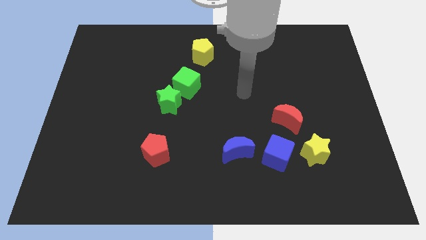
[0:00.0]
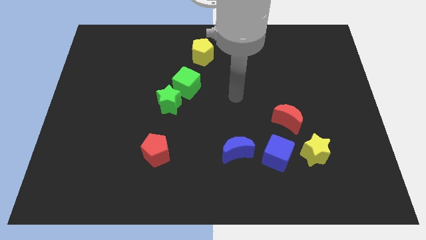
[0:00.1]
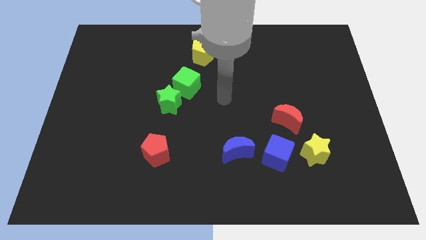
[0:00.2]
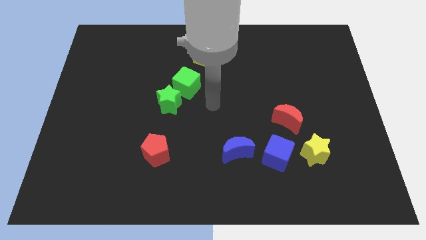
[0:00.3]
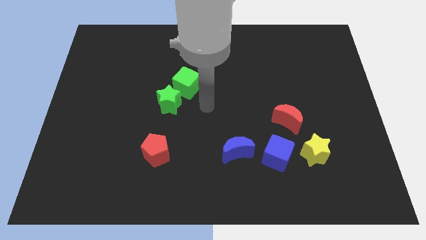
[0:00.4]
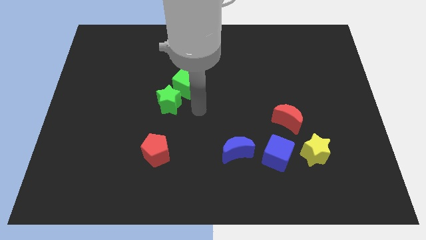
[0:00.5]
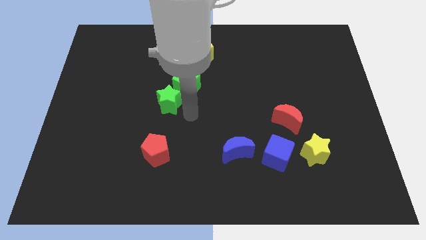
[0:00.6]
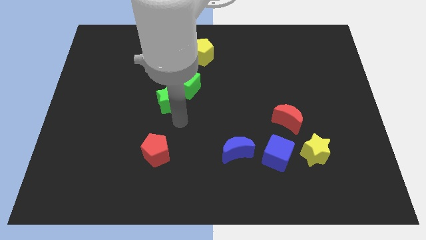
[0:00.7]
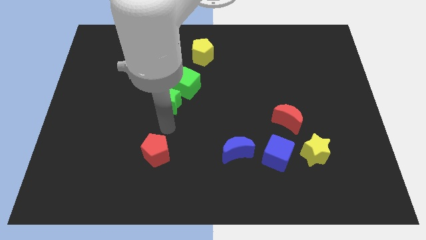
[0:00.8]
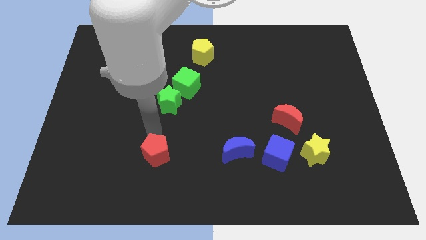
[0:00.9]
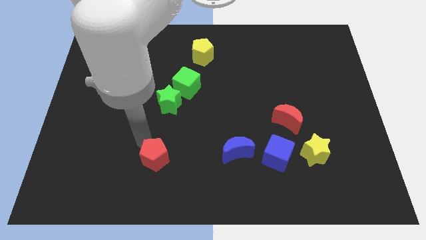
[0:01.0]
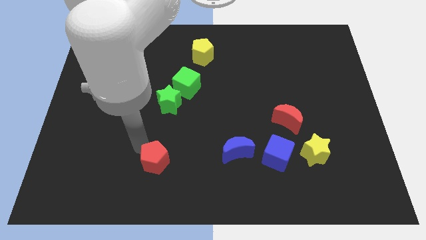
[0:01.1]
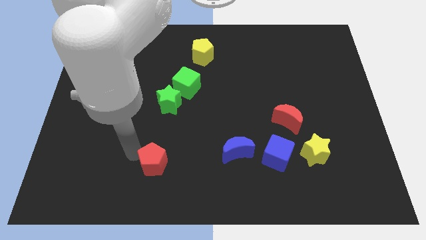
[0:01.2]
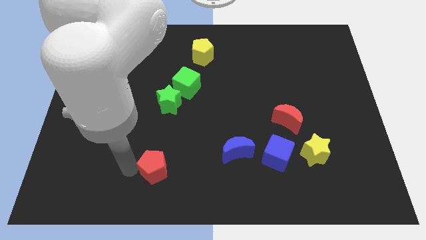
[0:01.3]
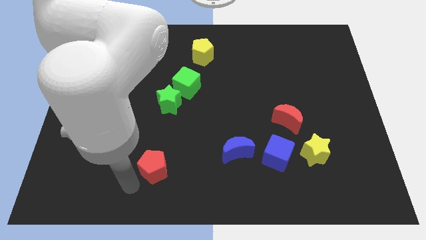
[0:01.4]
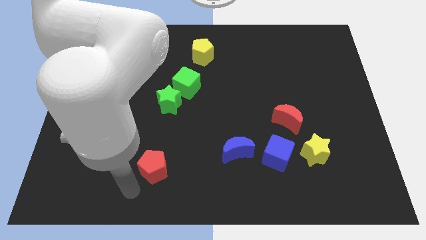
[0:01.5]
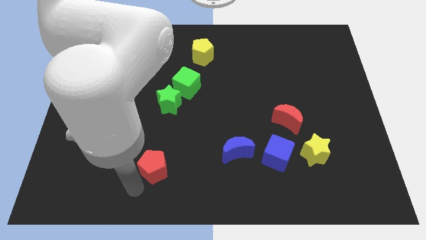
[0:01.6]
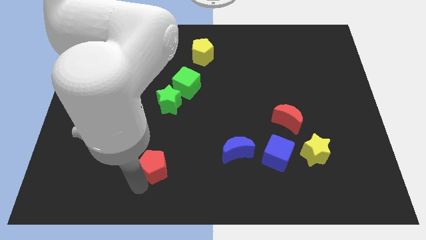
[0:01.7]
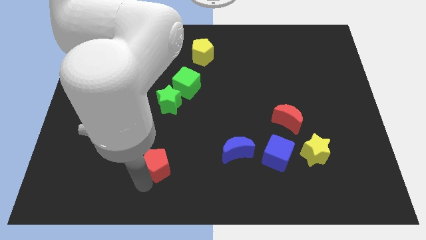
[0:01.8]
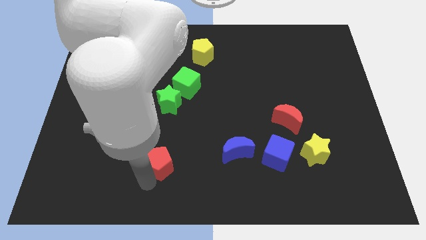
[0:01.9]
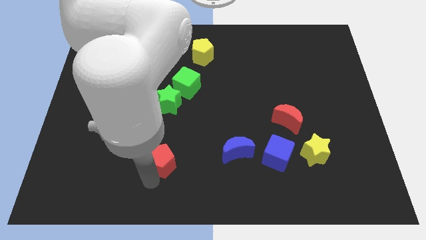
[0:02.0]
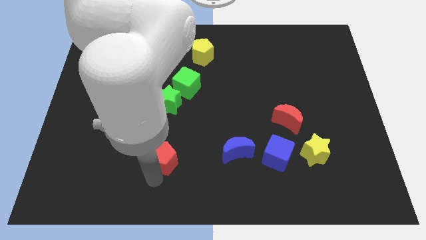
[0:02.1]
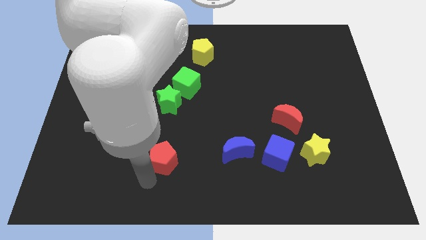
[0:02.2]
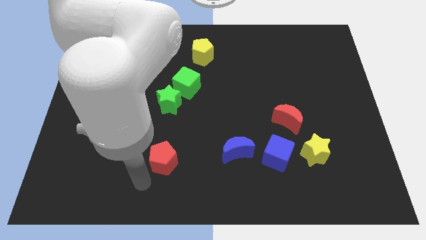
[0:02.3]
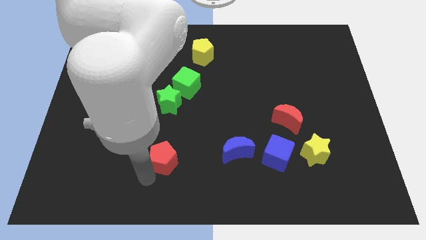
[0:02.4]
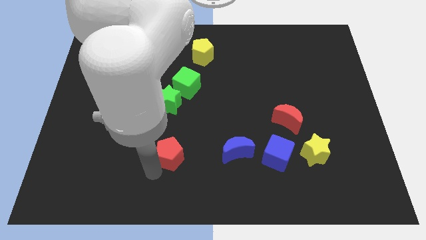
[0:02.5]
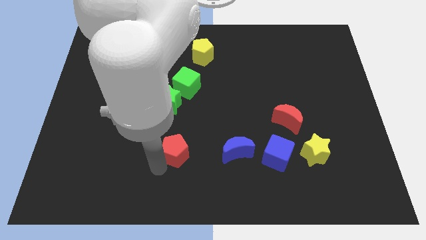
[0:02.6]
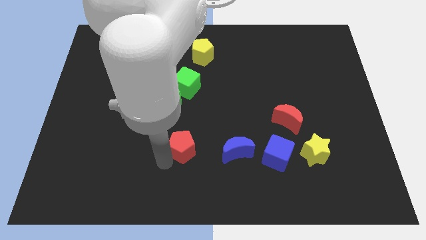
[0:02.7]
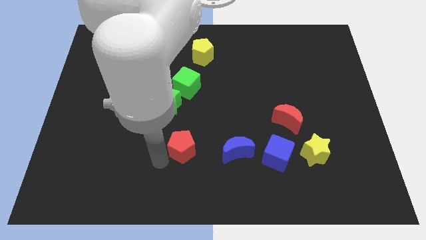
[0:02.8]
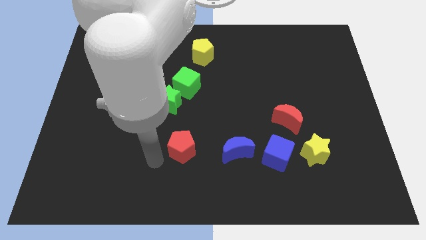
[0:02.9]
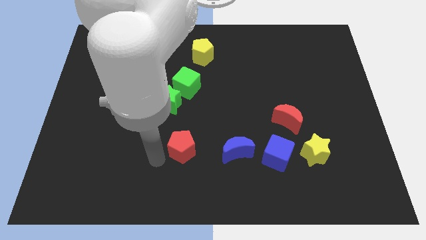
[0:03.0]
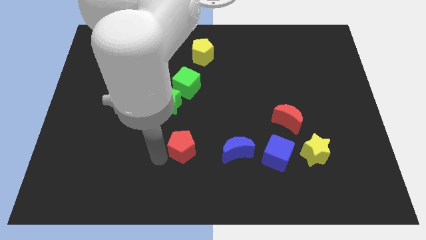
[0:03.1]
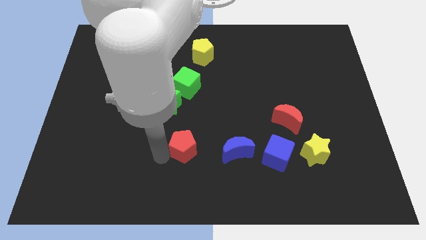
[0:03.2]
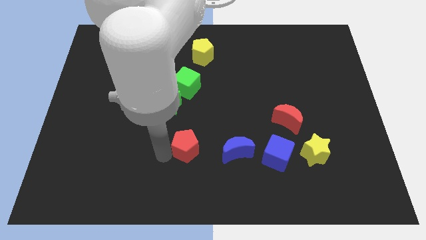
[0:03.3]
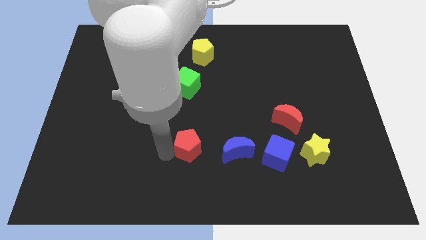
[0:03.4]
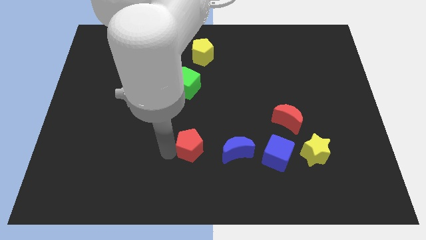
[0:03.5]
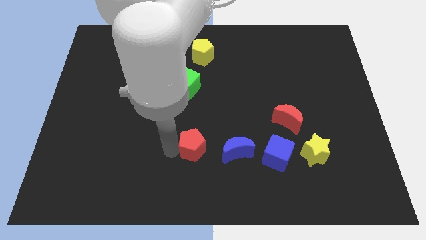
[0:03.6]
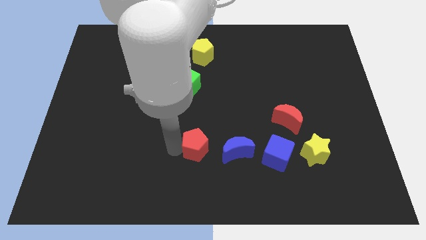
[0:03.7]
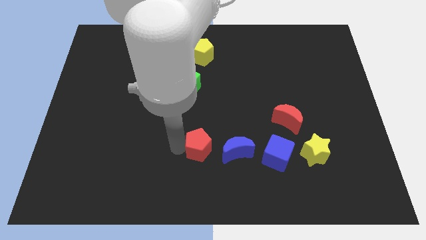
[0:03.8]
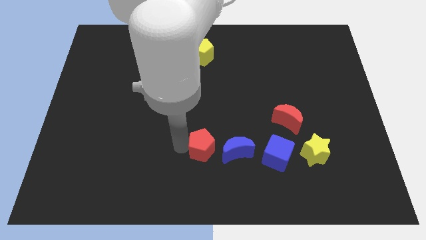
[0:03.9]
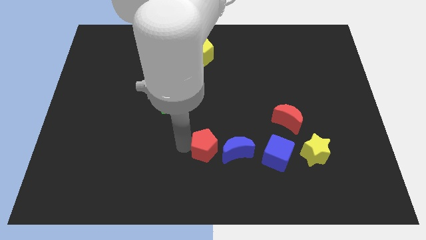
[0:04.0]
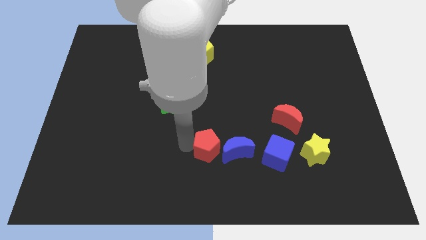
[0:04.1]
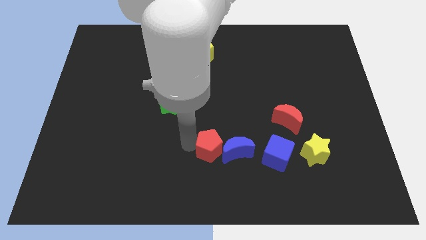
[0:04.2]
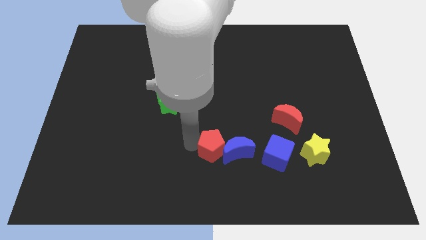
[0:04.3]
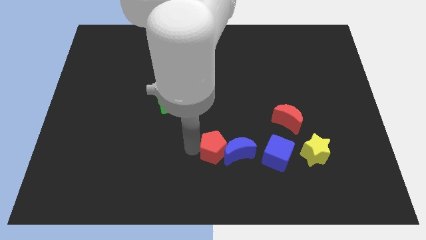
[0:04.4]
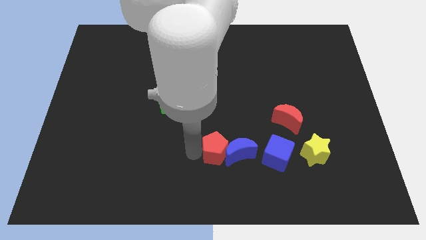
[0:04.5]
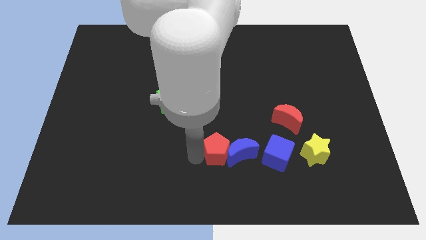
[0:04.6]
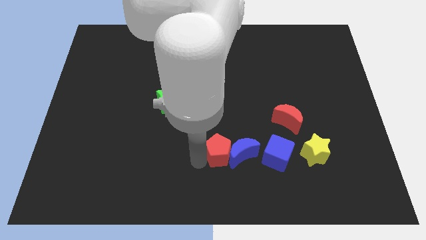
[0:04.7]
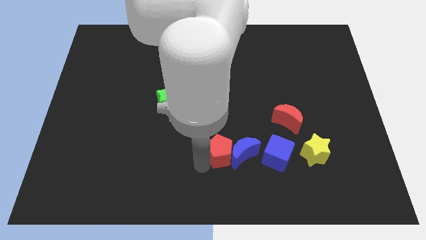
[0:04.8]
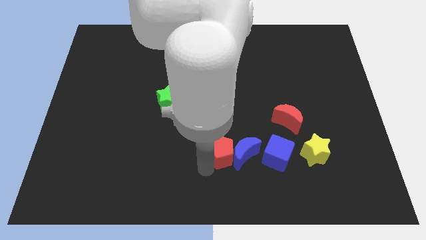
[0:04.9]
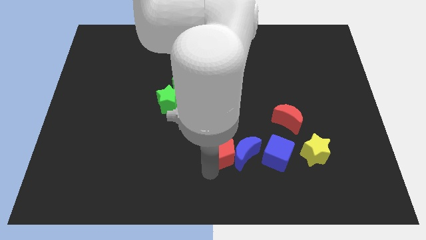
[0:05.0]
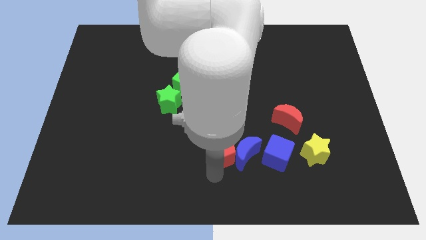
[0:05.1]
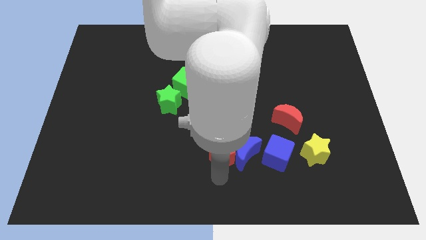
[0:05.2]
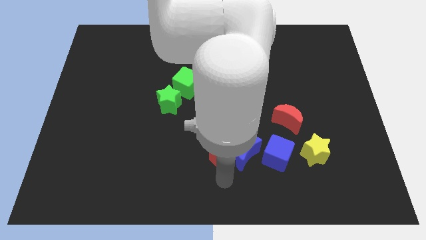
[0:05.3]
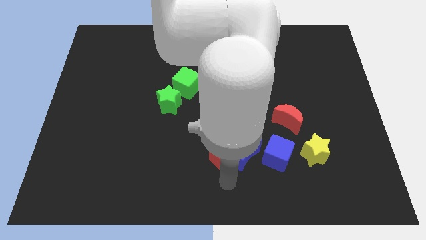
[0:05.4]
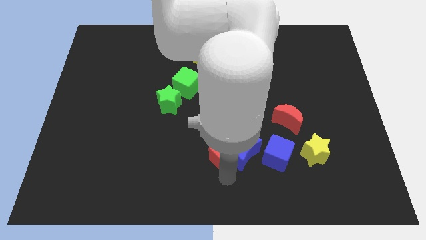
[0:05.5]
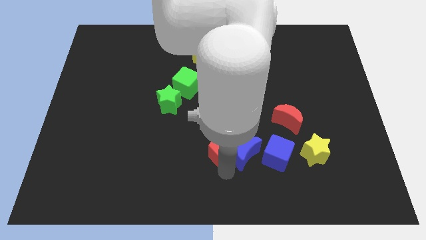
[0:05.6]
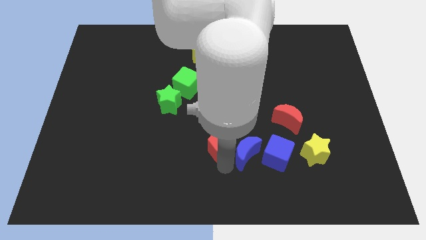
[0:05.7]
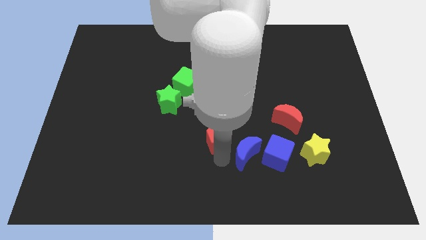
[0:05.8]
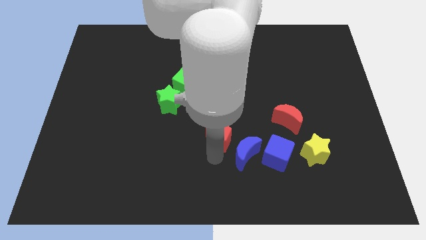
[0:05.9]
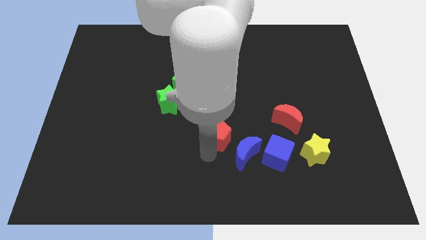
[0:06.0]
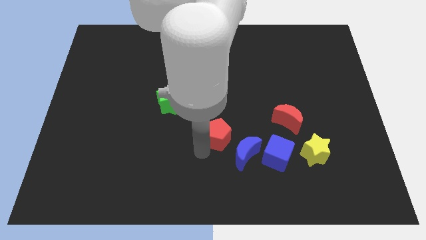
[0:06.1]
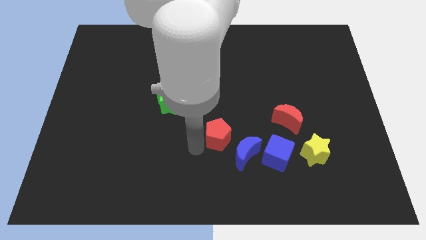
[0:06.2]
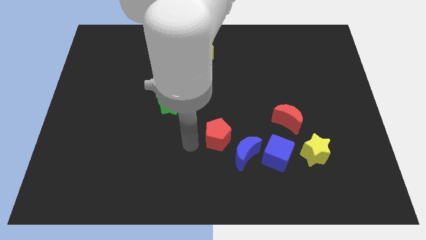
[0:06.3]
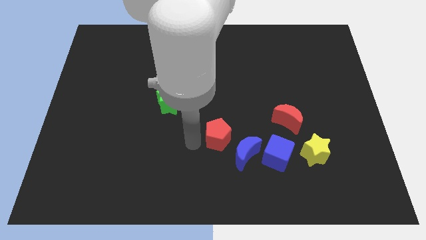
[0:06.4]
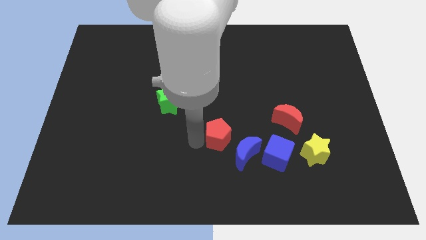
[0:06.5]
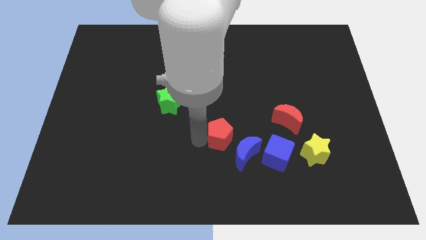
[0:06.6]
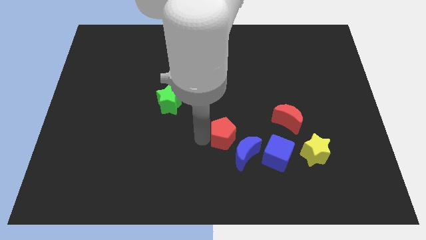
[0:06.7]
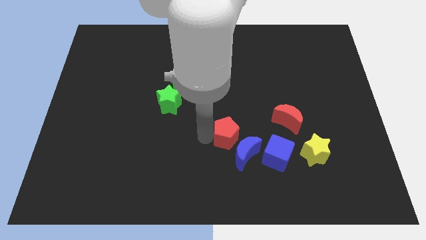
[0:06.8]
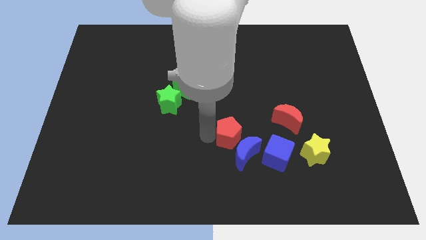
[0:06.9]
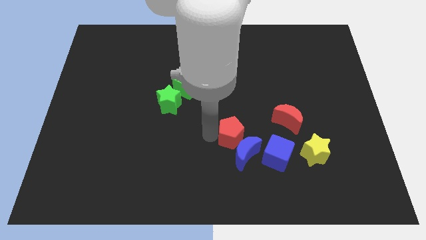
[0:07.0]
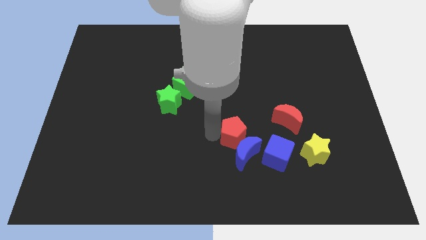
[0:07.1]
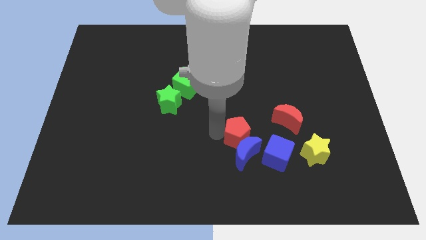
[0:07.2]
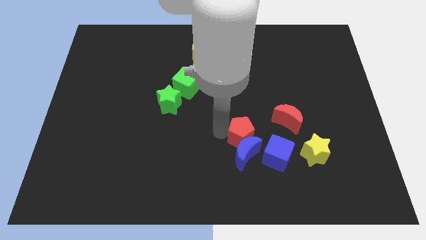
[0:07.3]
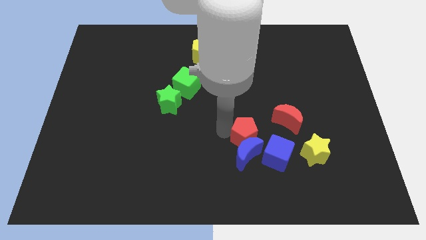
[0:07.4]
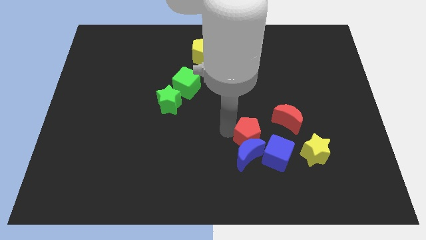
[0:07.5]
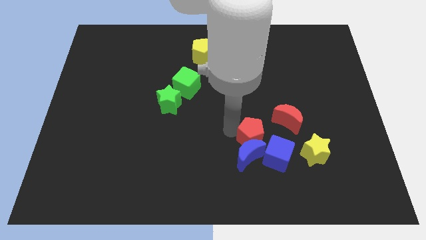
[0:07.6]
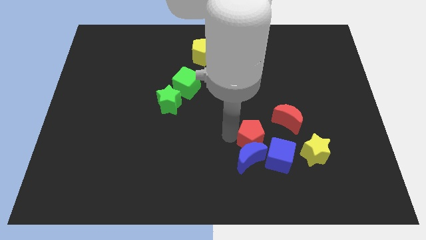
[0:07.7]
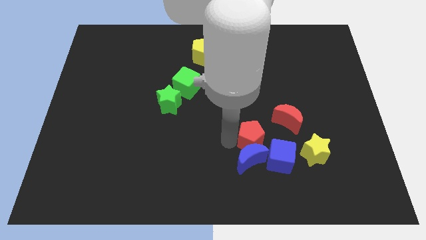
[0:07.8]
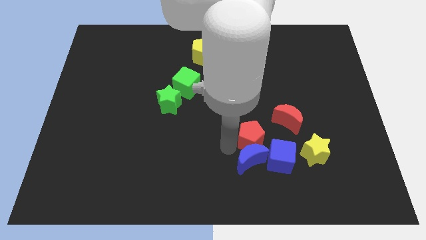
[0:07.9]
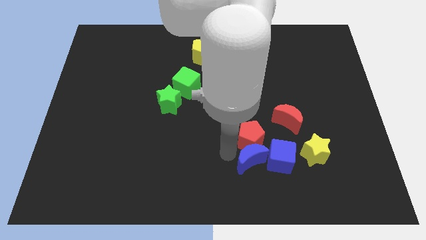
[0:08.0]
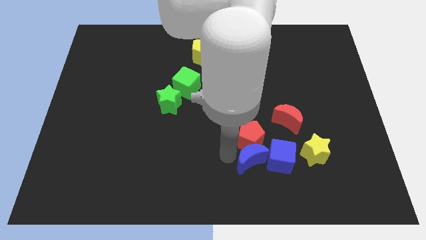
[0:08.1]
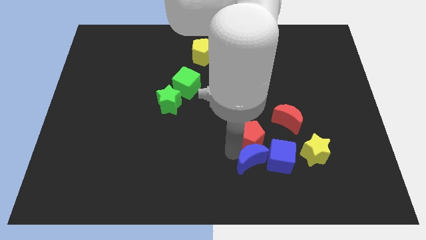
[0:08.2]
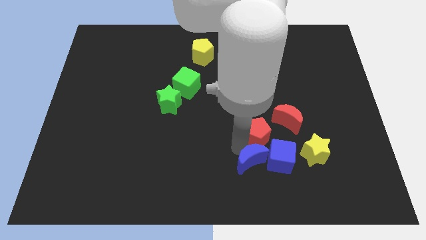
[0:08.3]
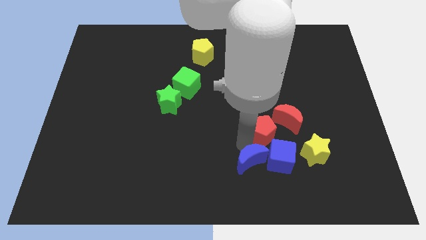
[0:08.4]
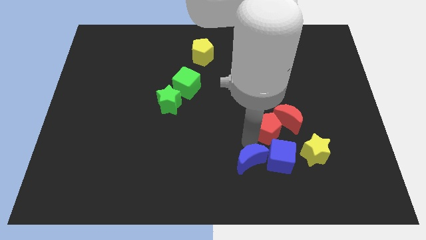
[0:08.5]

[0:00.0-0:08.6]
move the red pentagon next to the red moon
